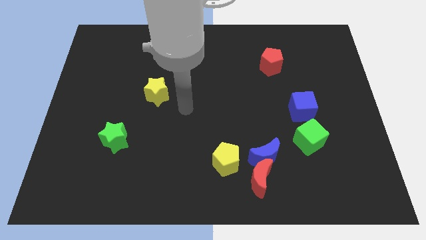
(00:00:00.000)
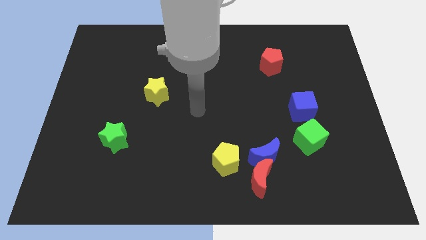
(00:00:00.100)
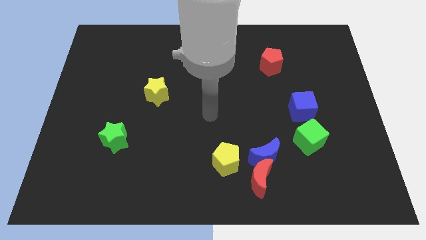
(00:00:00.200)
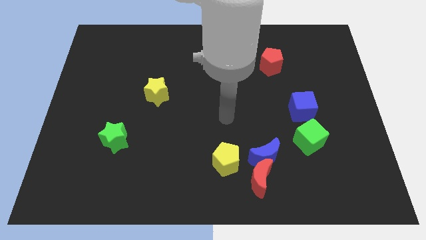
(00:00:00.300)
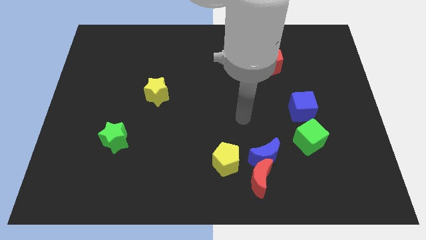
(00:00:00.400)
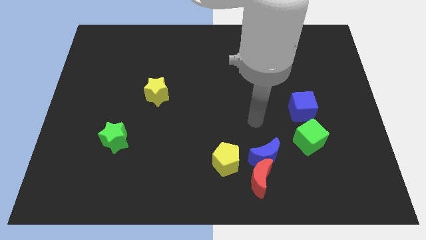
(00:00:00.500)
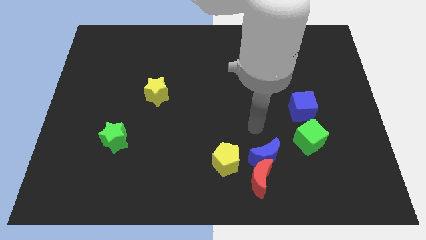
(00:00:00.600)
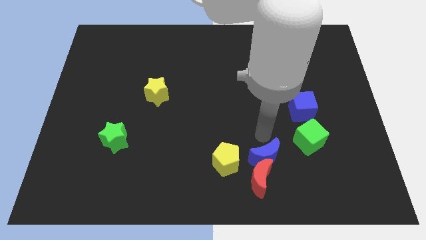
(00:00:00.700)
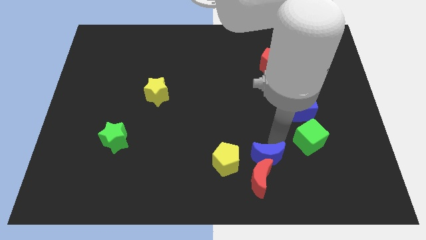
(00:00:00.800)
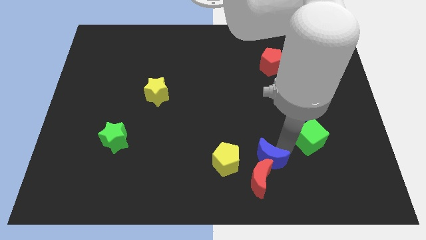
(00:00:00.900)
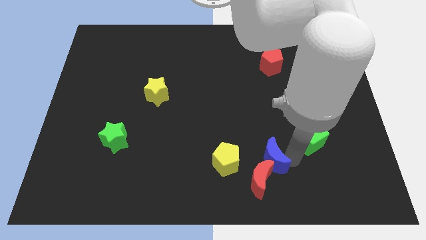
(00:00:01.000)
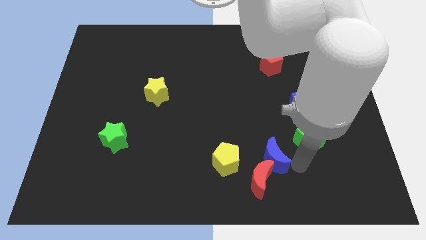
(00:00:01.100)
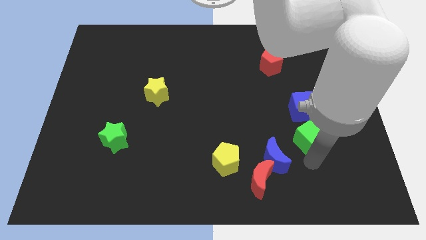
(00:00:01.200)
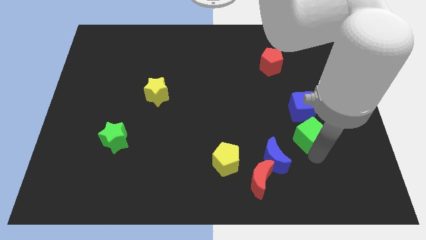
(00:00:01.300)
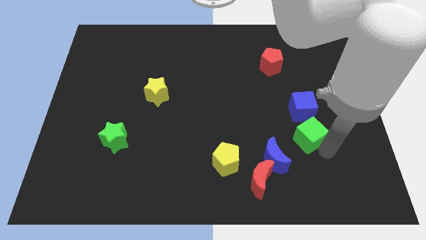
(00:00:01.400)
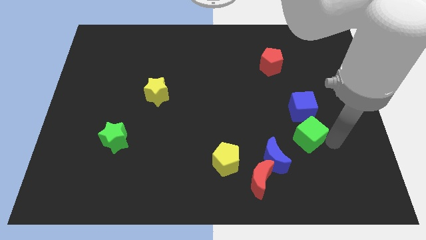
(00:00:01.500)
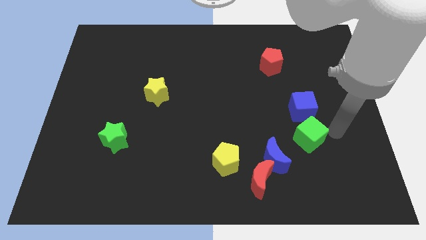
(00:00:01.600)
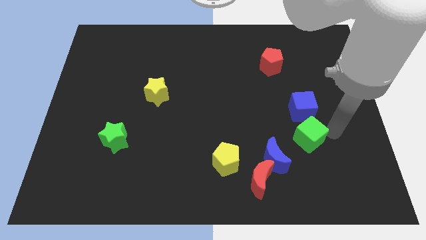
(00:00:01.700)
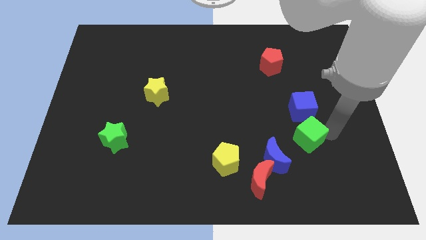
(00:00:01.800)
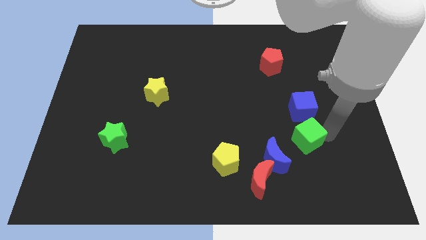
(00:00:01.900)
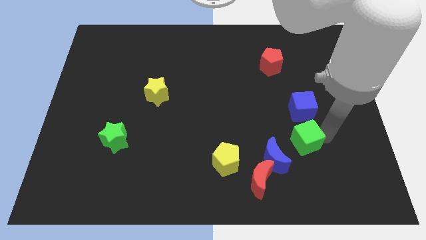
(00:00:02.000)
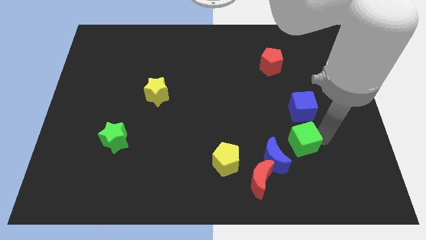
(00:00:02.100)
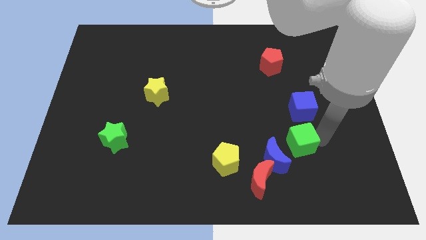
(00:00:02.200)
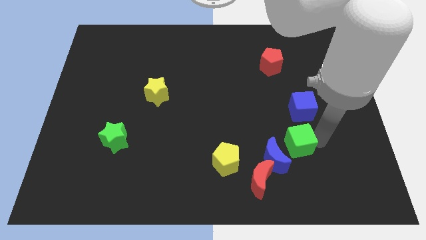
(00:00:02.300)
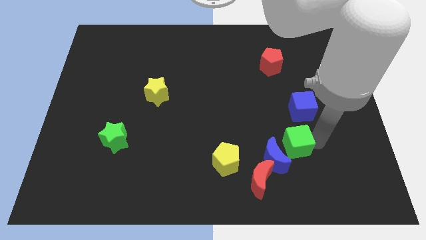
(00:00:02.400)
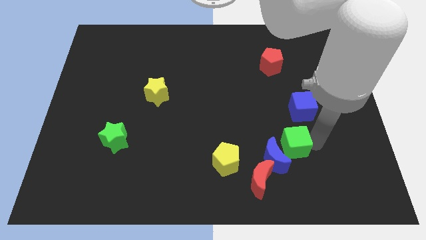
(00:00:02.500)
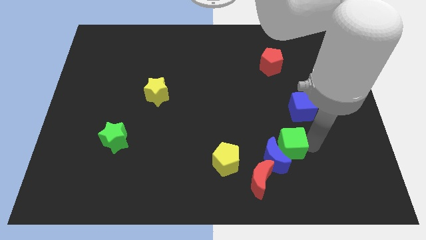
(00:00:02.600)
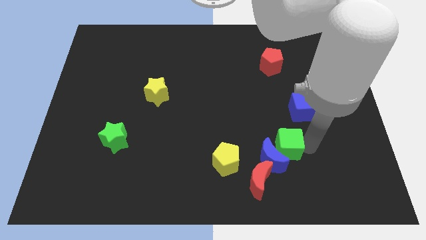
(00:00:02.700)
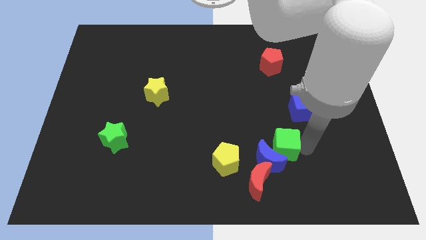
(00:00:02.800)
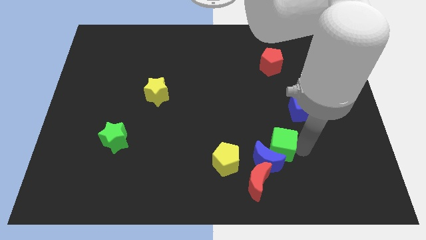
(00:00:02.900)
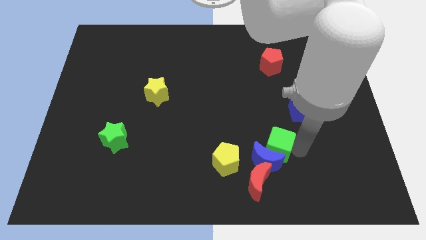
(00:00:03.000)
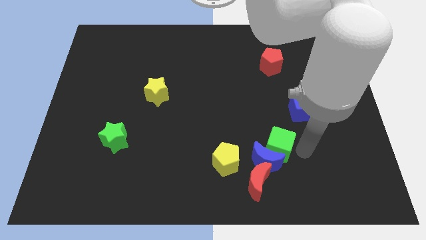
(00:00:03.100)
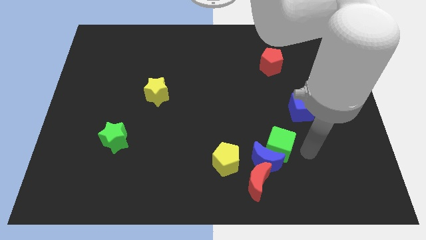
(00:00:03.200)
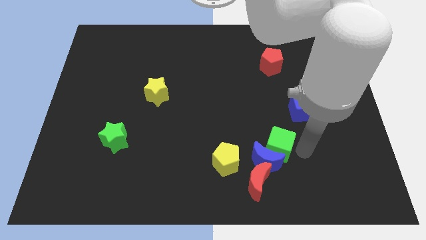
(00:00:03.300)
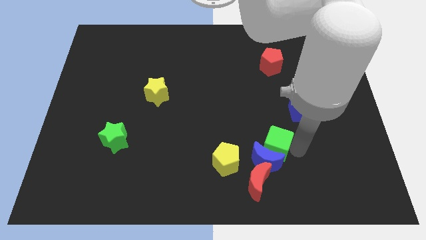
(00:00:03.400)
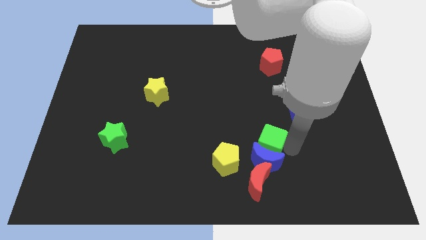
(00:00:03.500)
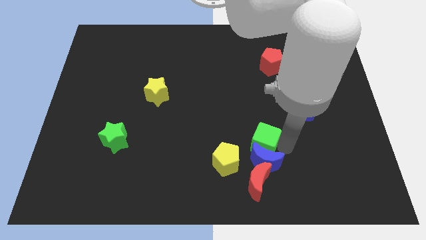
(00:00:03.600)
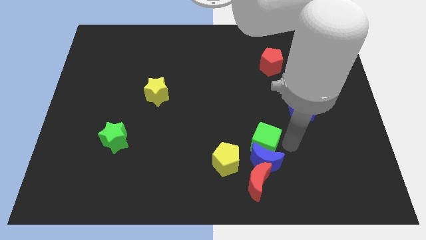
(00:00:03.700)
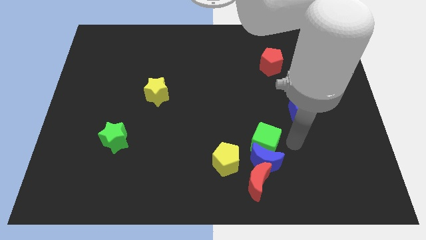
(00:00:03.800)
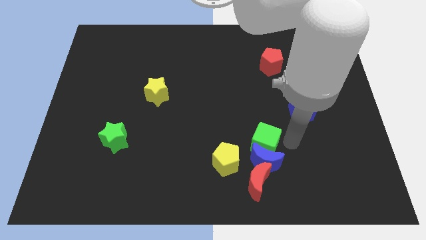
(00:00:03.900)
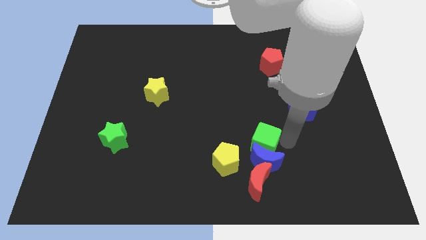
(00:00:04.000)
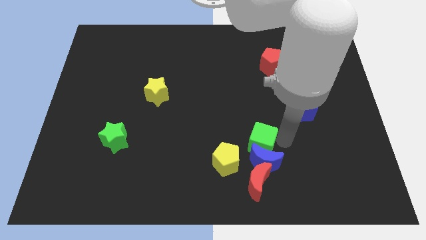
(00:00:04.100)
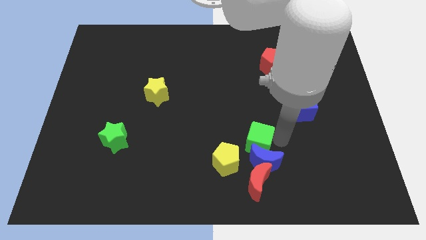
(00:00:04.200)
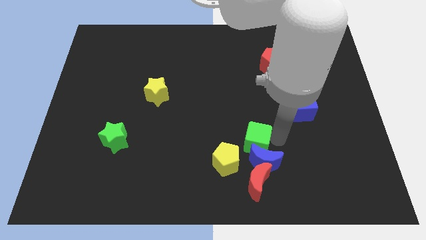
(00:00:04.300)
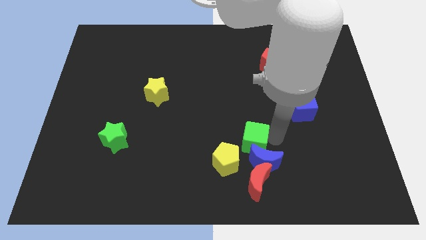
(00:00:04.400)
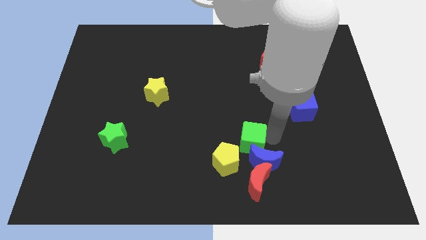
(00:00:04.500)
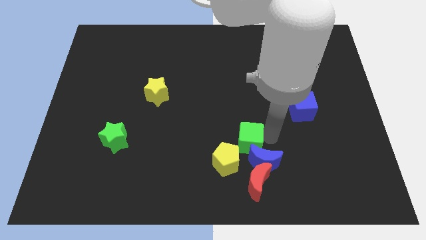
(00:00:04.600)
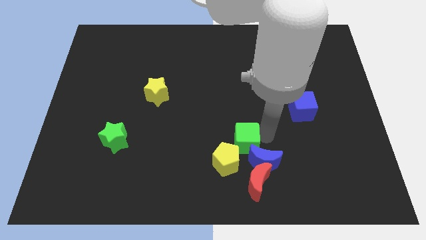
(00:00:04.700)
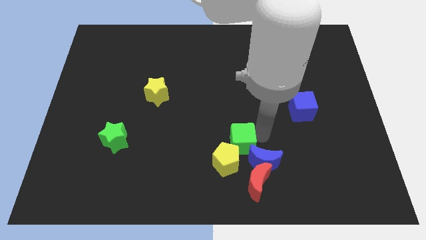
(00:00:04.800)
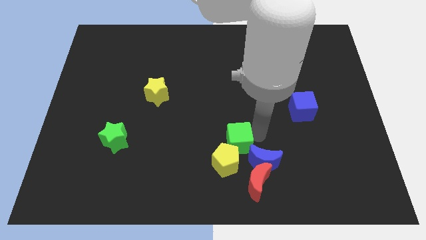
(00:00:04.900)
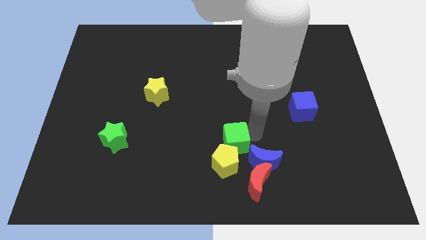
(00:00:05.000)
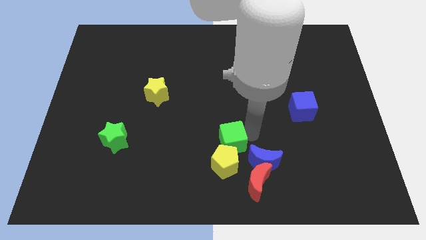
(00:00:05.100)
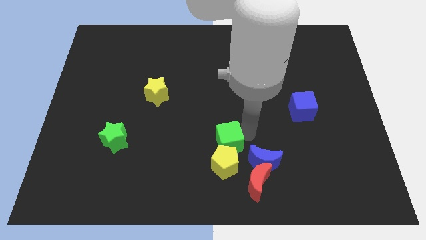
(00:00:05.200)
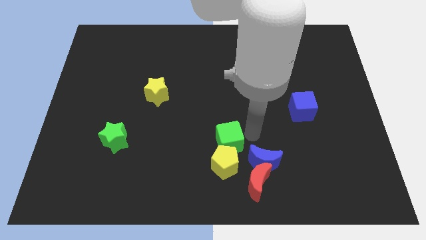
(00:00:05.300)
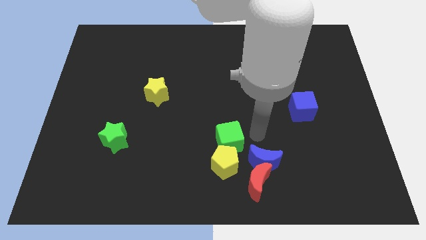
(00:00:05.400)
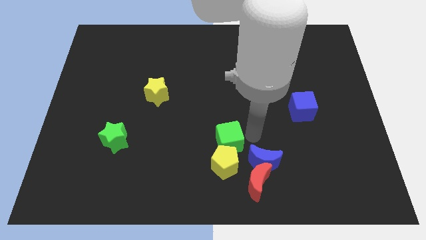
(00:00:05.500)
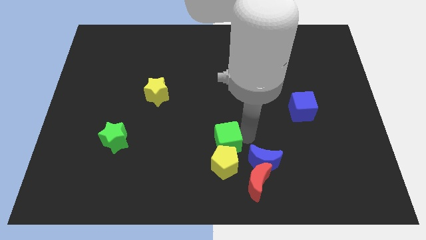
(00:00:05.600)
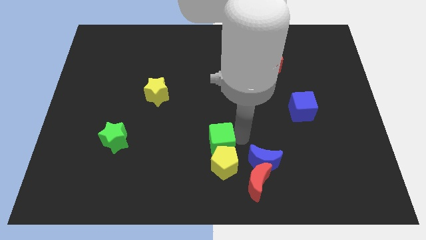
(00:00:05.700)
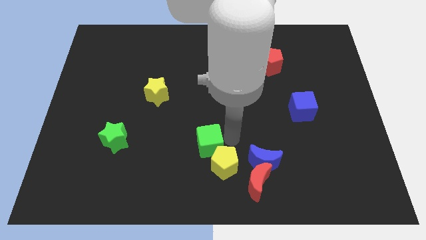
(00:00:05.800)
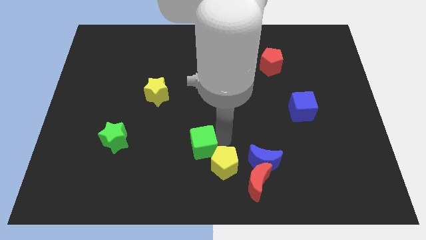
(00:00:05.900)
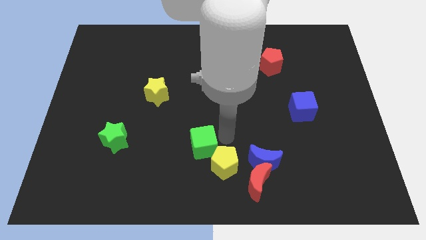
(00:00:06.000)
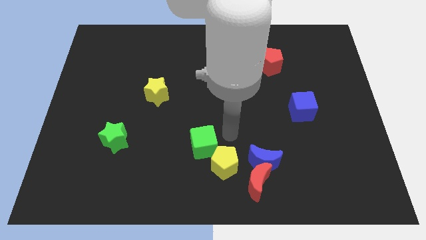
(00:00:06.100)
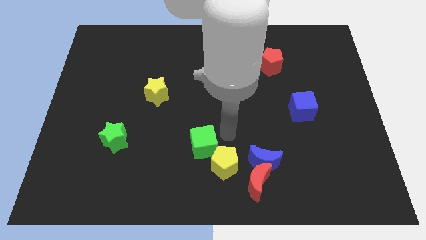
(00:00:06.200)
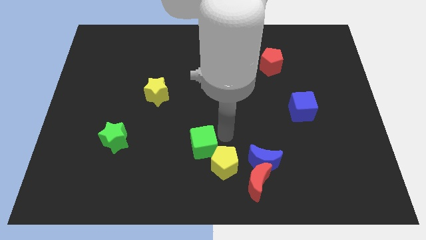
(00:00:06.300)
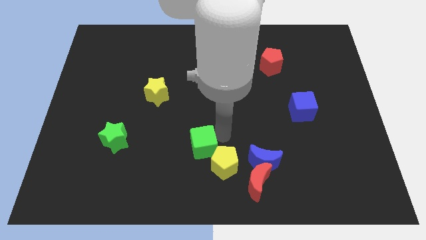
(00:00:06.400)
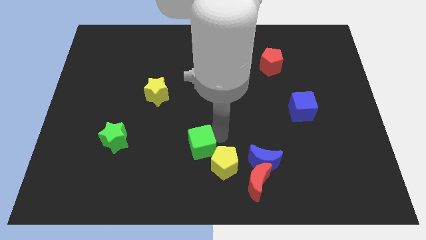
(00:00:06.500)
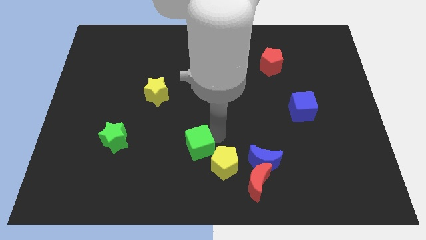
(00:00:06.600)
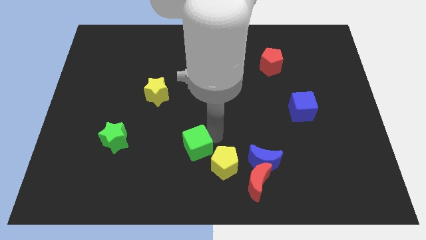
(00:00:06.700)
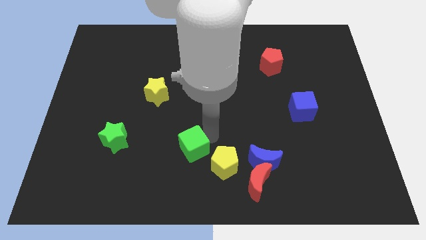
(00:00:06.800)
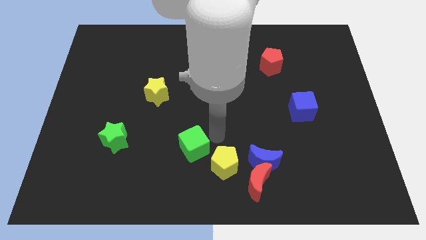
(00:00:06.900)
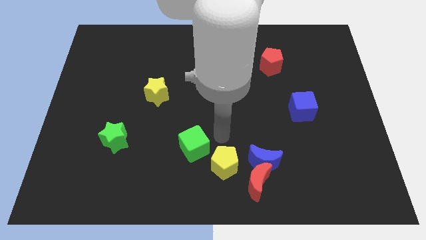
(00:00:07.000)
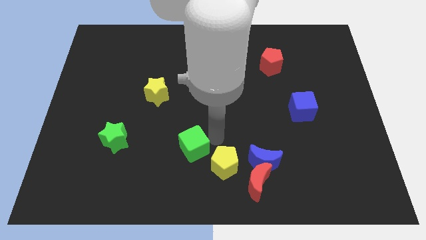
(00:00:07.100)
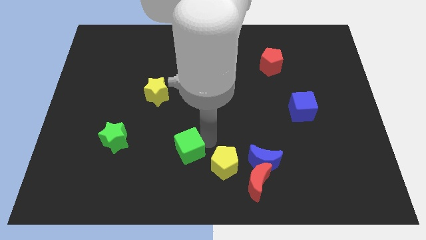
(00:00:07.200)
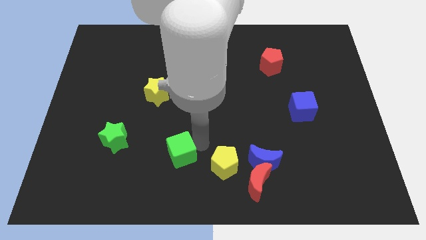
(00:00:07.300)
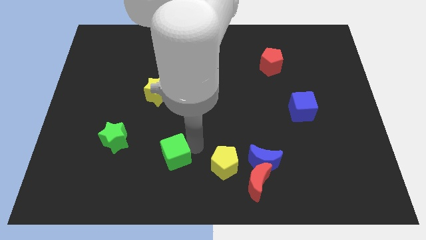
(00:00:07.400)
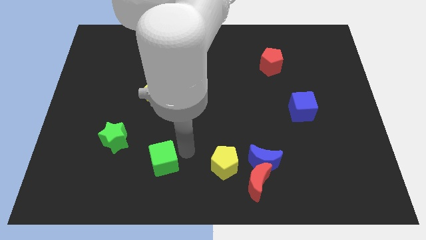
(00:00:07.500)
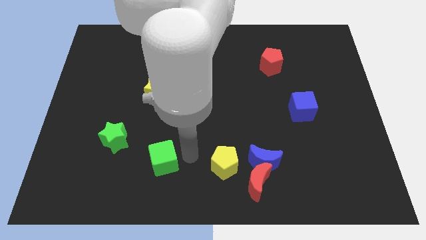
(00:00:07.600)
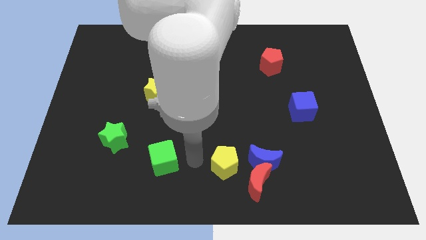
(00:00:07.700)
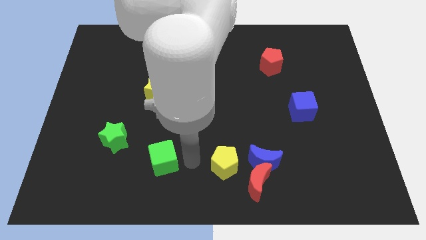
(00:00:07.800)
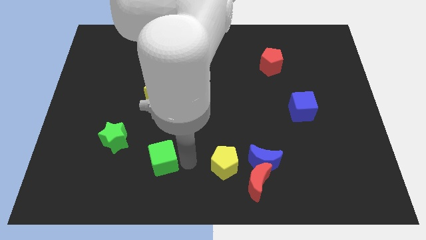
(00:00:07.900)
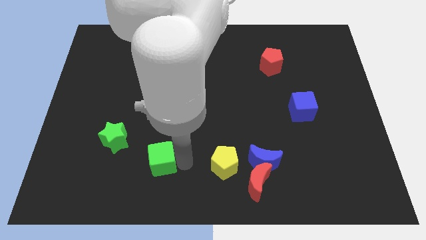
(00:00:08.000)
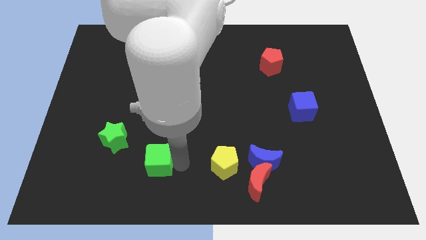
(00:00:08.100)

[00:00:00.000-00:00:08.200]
put the green cube to the bottom right of the green star
